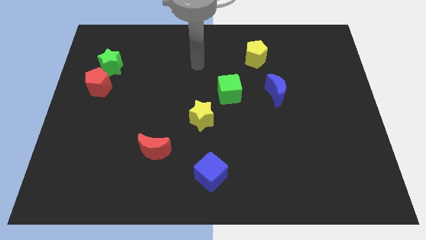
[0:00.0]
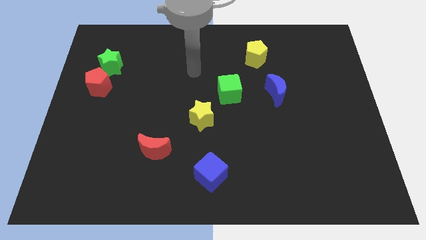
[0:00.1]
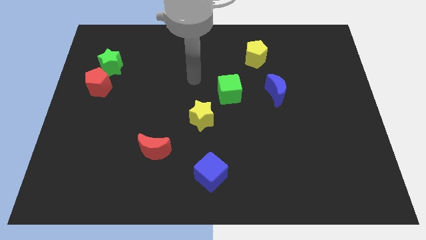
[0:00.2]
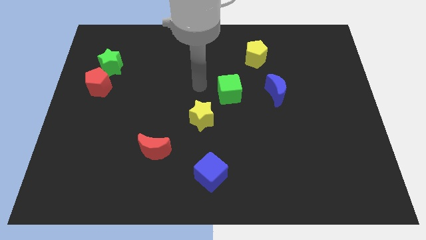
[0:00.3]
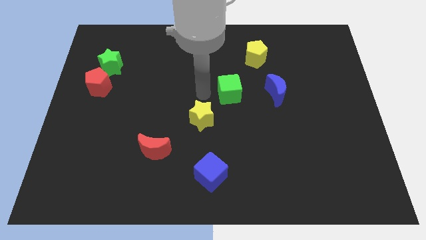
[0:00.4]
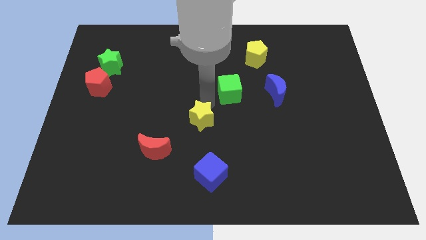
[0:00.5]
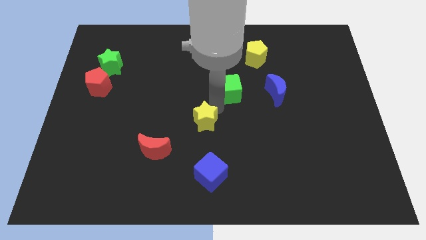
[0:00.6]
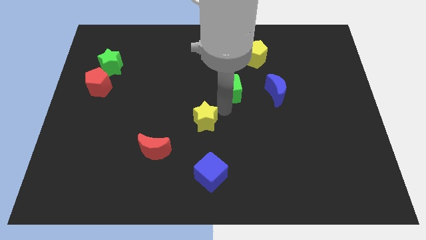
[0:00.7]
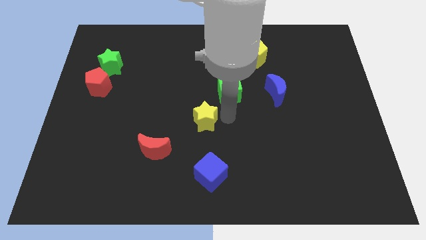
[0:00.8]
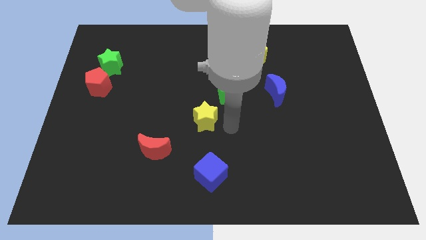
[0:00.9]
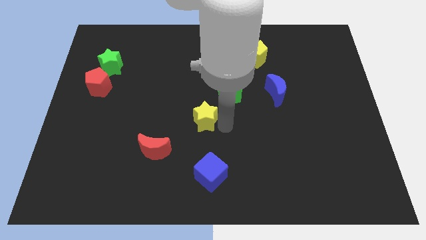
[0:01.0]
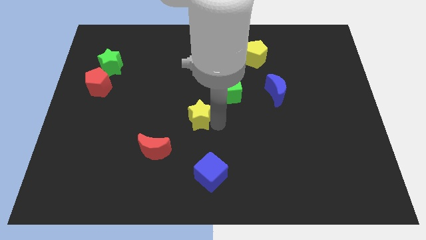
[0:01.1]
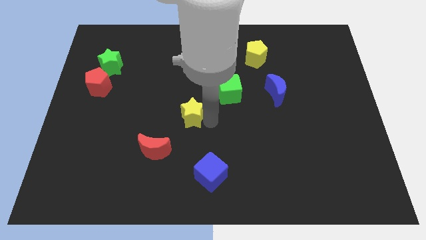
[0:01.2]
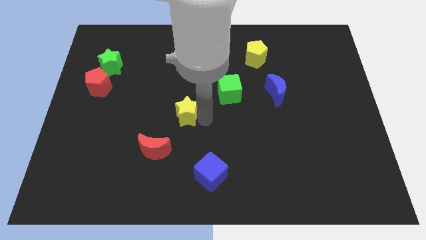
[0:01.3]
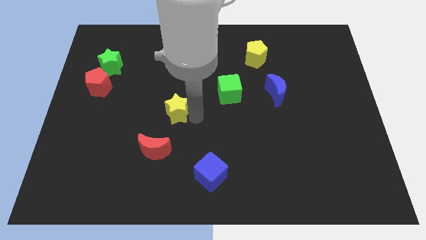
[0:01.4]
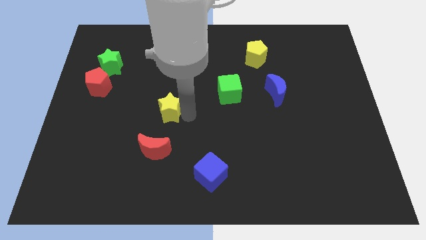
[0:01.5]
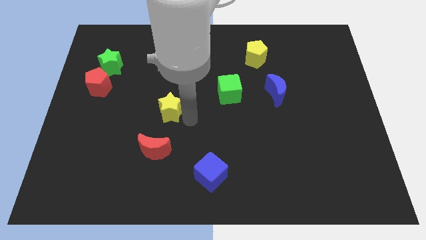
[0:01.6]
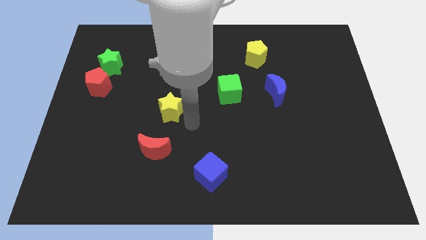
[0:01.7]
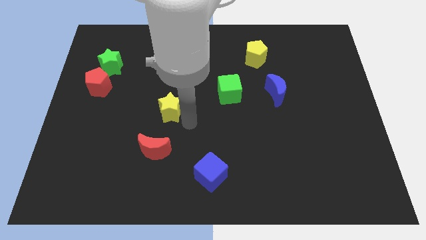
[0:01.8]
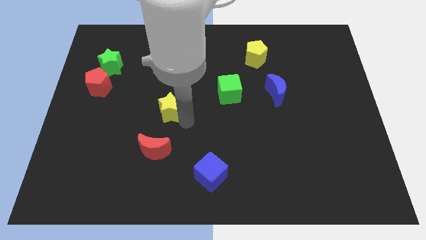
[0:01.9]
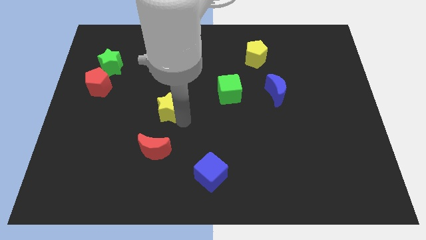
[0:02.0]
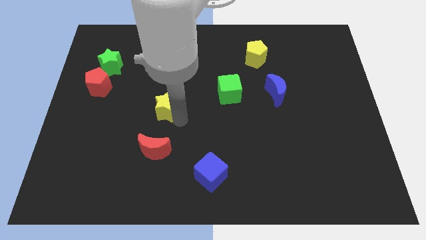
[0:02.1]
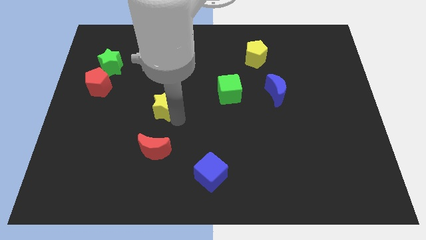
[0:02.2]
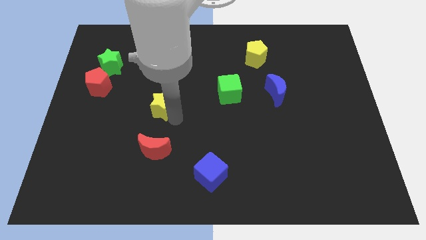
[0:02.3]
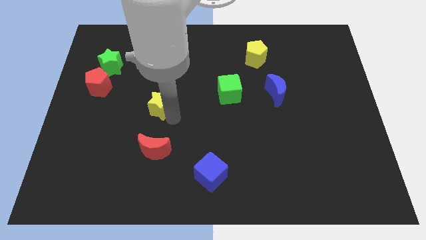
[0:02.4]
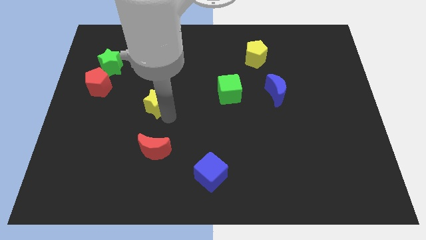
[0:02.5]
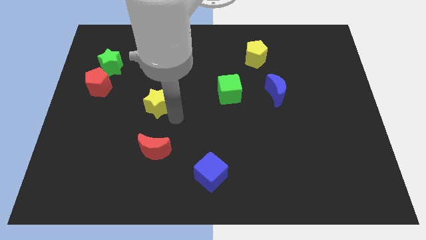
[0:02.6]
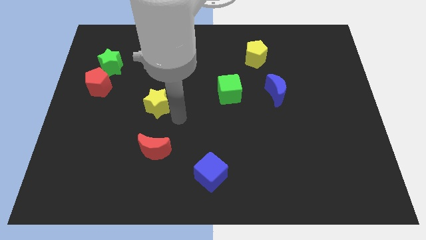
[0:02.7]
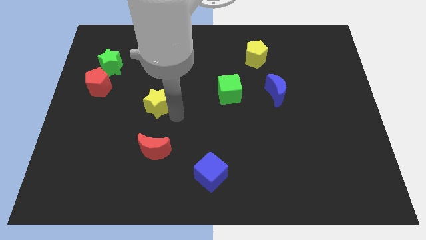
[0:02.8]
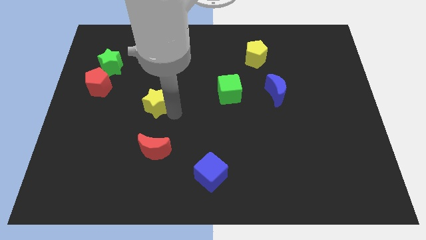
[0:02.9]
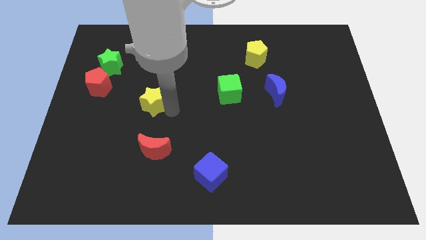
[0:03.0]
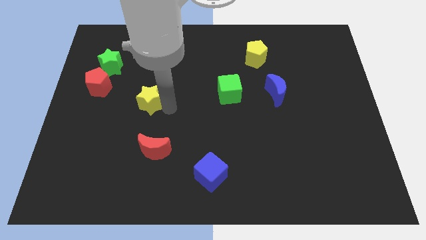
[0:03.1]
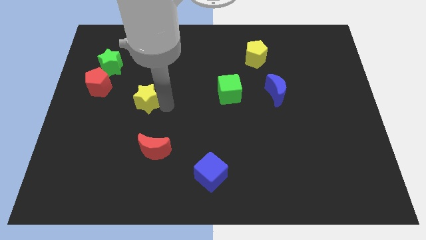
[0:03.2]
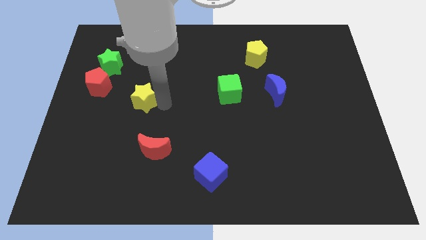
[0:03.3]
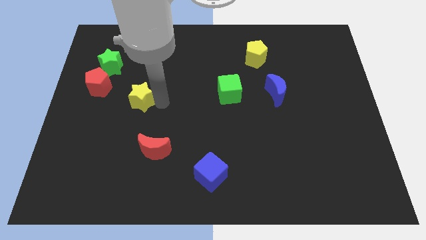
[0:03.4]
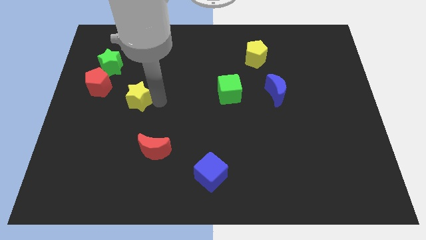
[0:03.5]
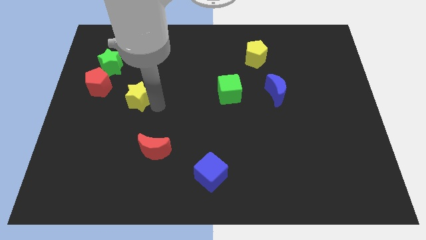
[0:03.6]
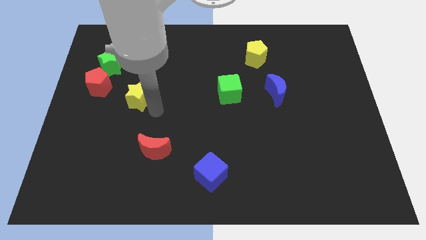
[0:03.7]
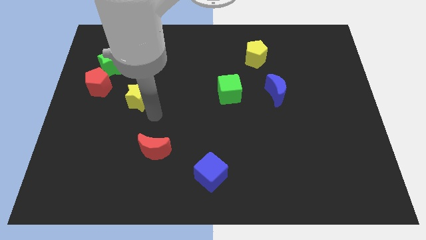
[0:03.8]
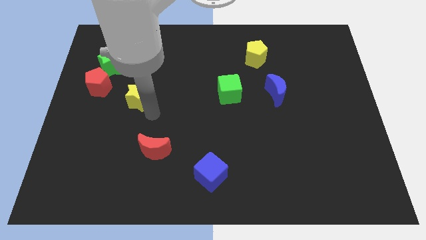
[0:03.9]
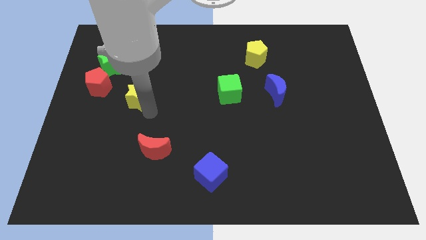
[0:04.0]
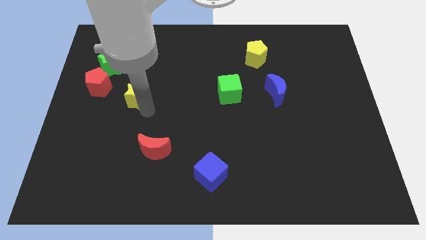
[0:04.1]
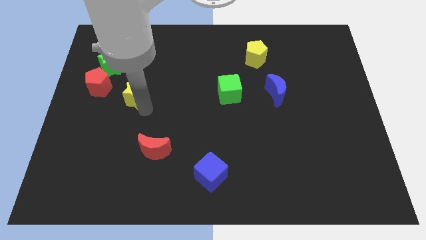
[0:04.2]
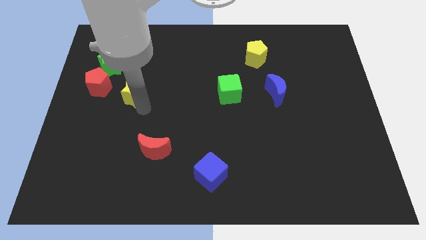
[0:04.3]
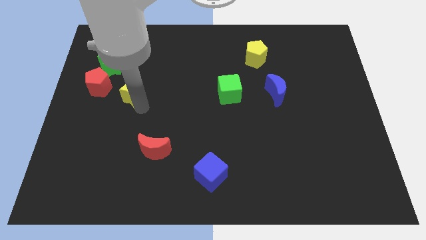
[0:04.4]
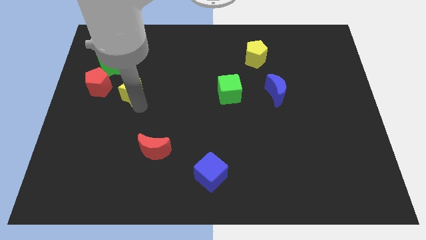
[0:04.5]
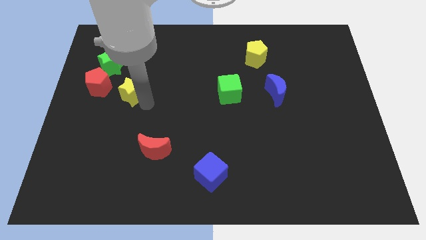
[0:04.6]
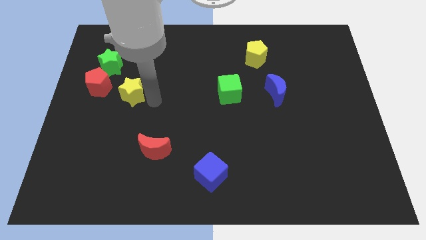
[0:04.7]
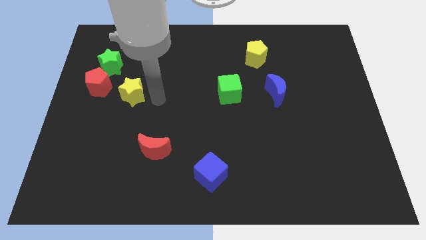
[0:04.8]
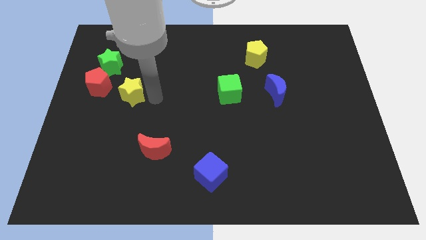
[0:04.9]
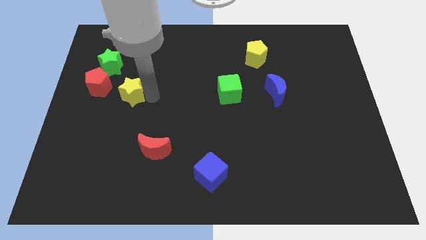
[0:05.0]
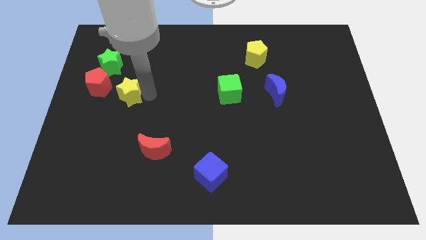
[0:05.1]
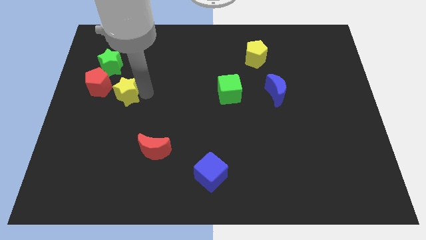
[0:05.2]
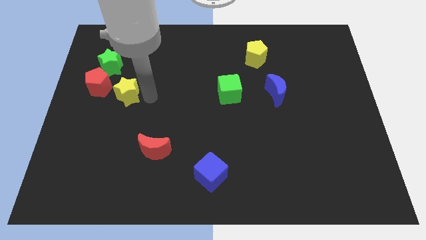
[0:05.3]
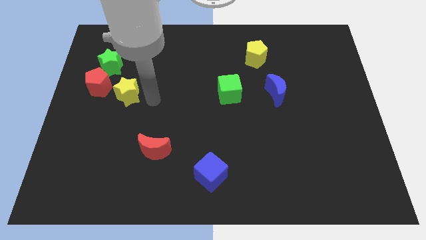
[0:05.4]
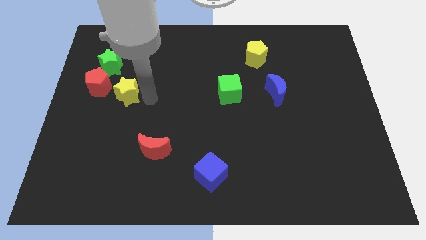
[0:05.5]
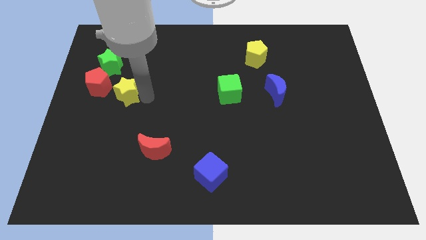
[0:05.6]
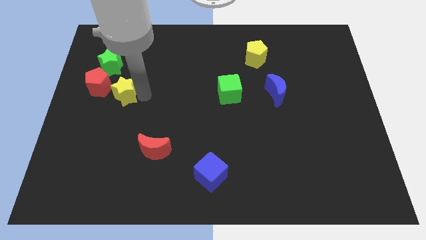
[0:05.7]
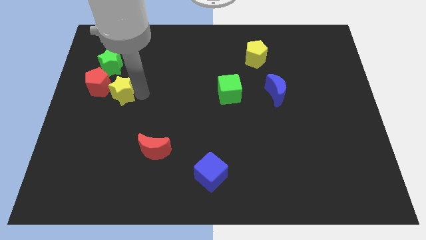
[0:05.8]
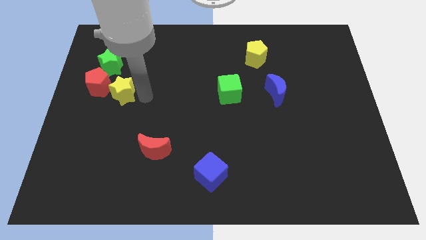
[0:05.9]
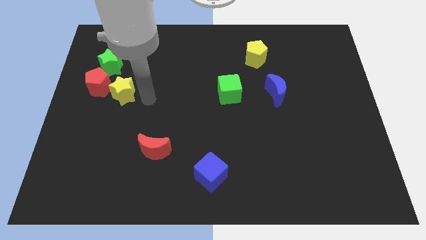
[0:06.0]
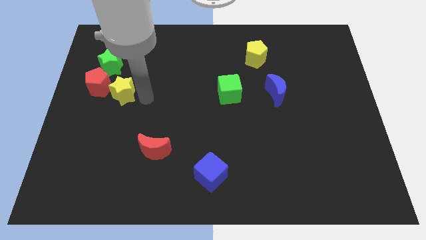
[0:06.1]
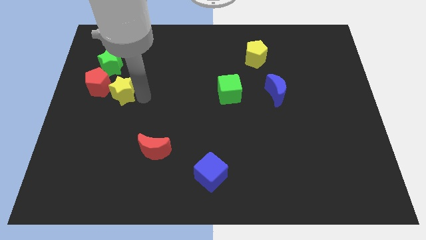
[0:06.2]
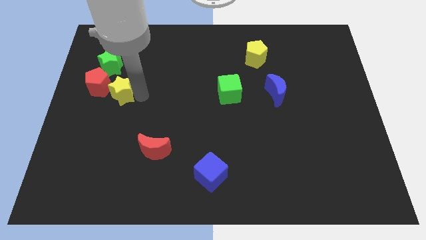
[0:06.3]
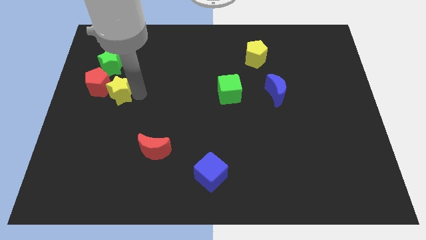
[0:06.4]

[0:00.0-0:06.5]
put the yellow star towards the red pentagon

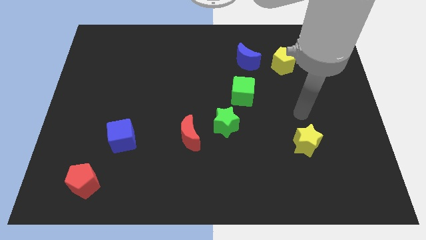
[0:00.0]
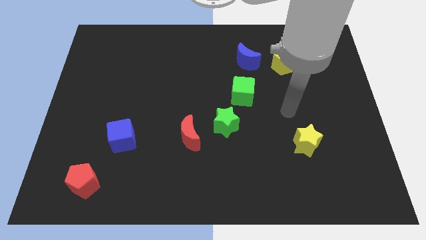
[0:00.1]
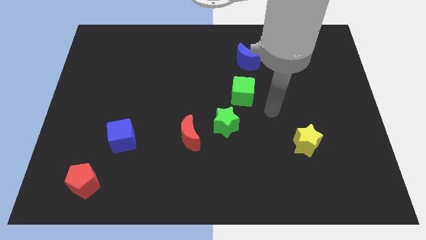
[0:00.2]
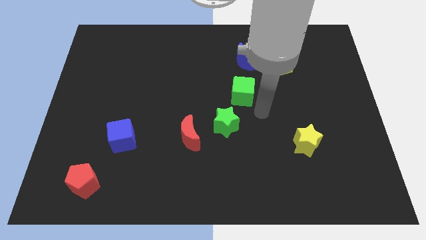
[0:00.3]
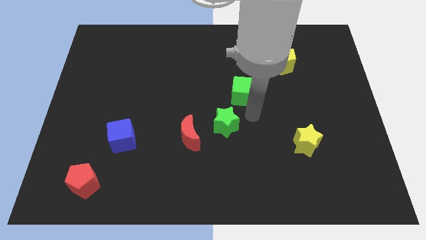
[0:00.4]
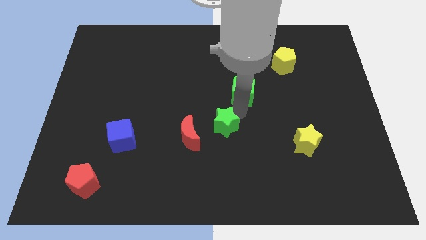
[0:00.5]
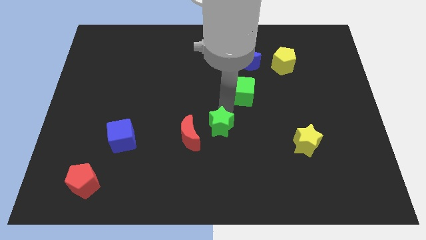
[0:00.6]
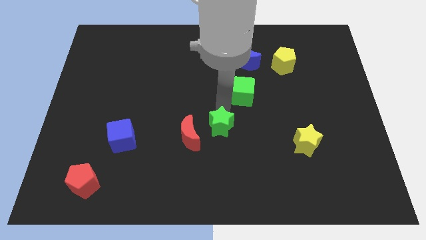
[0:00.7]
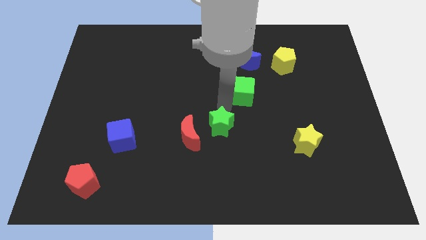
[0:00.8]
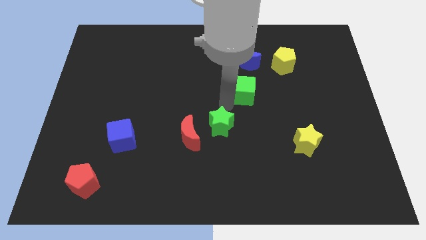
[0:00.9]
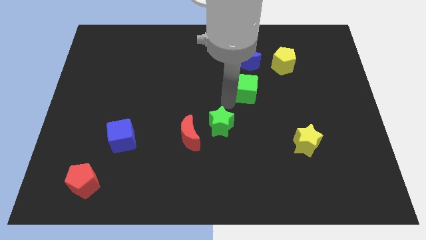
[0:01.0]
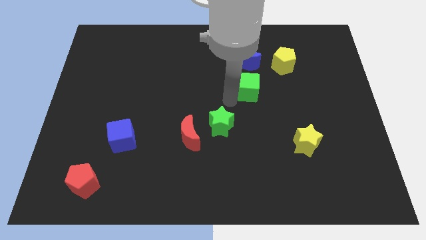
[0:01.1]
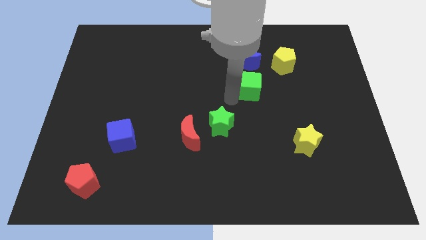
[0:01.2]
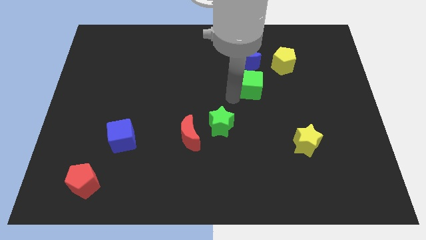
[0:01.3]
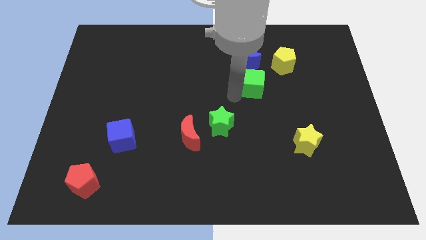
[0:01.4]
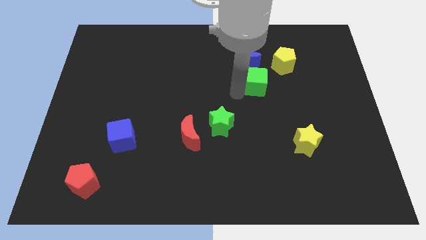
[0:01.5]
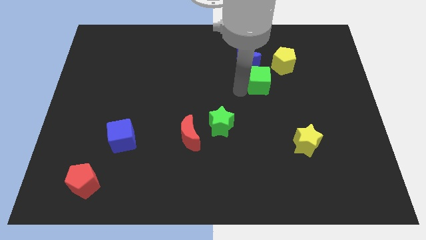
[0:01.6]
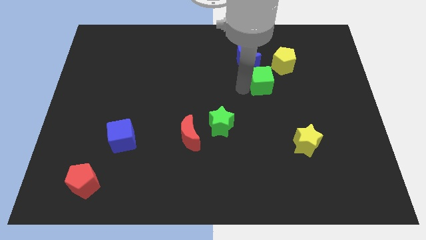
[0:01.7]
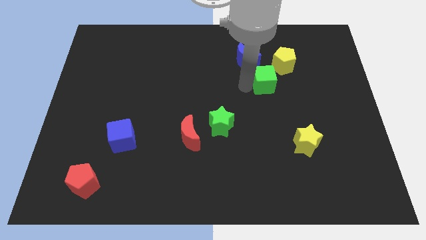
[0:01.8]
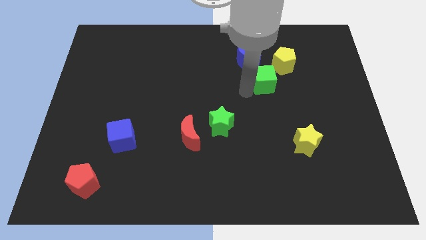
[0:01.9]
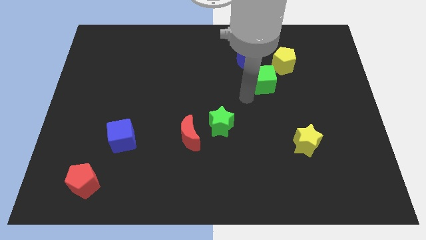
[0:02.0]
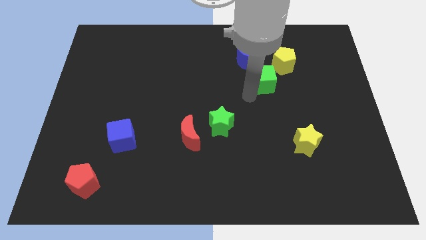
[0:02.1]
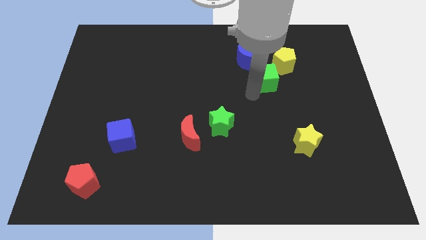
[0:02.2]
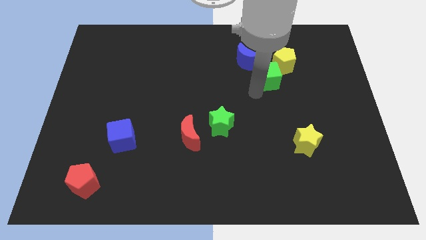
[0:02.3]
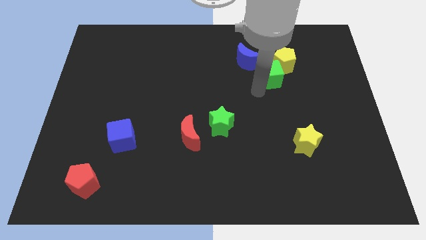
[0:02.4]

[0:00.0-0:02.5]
move the green cube to the yellow pentagon
